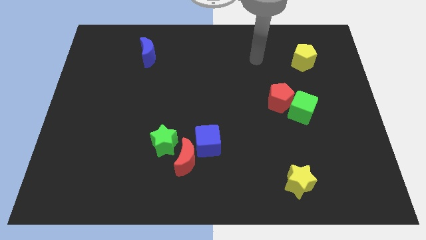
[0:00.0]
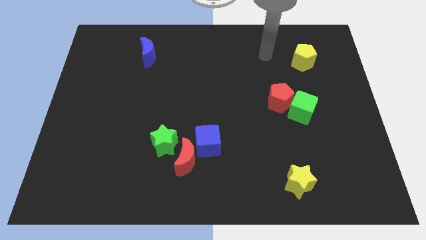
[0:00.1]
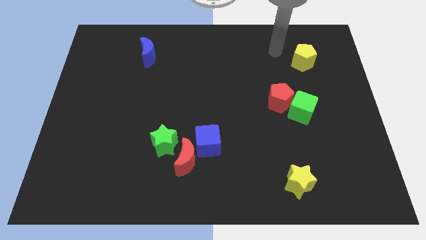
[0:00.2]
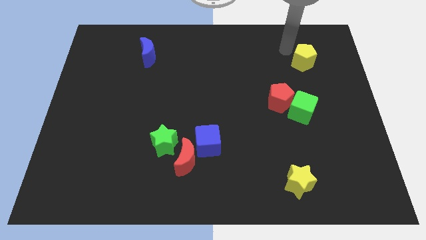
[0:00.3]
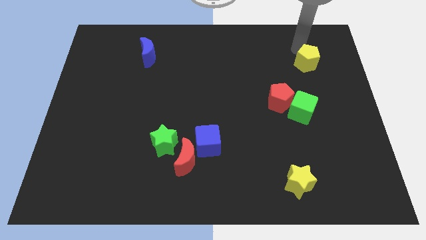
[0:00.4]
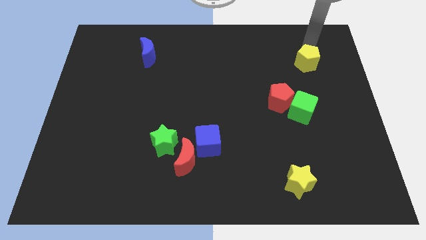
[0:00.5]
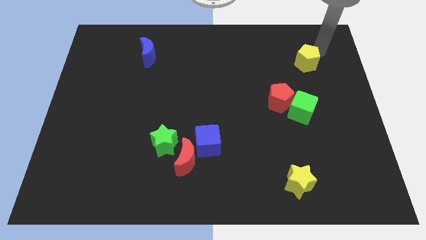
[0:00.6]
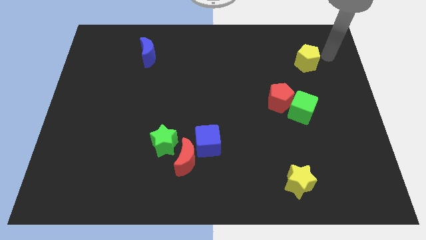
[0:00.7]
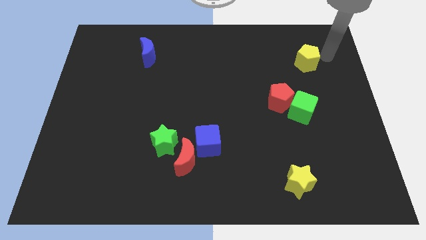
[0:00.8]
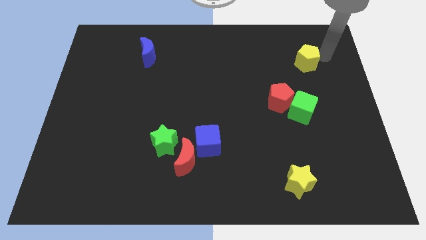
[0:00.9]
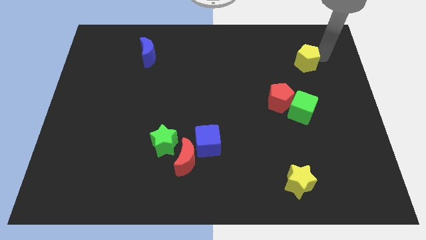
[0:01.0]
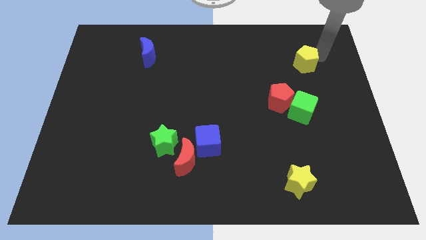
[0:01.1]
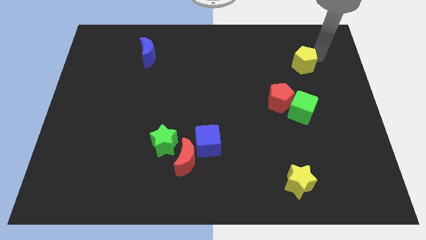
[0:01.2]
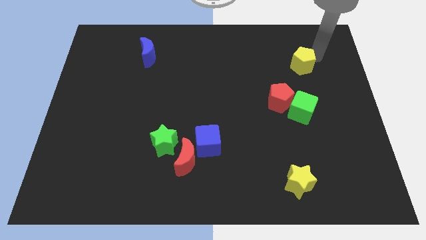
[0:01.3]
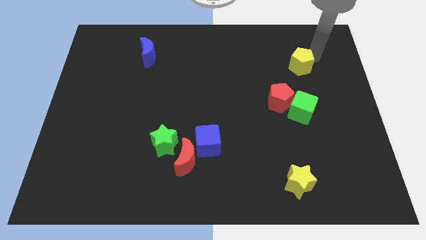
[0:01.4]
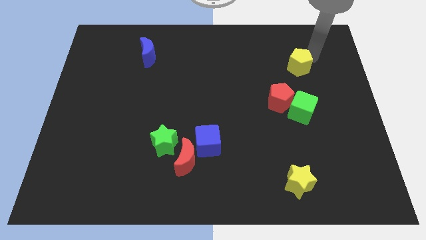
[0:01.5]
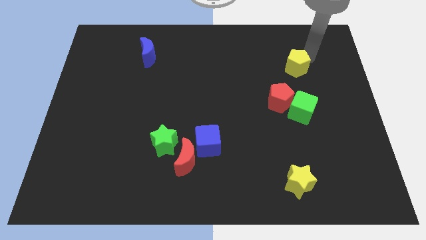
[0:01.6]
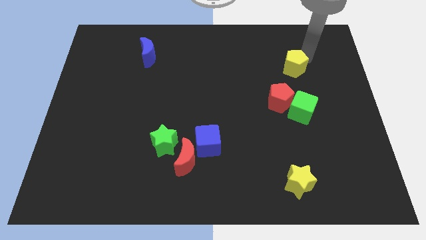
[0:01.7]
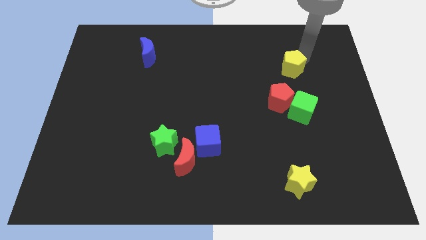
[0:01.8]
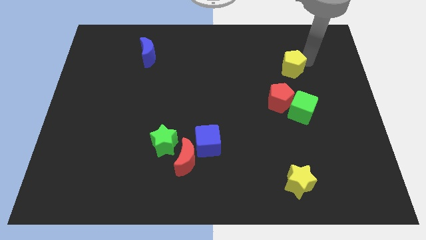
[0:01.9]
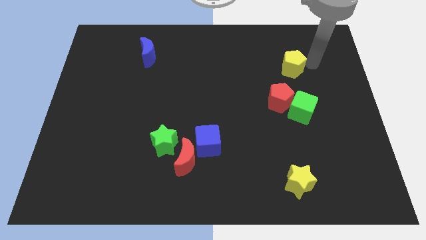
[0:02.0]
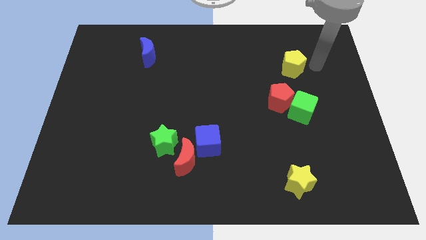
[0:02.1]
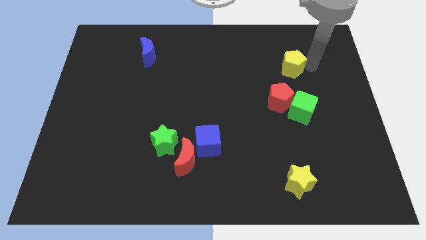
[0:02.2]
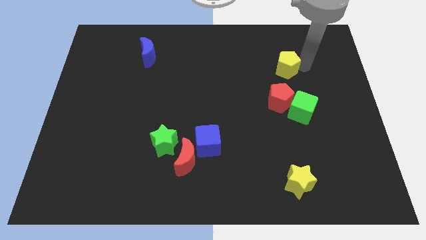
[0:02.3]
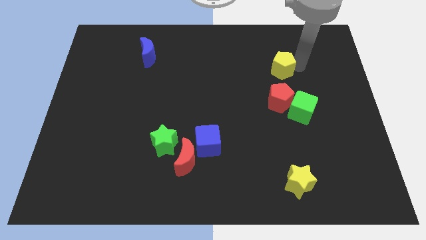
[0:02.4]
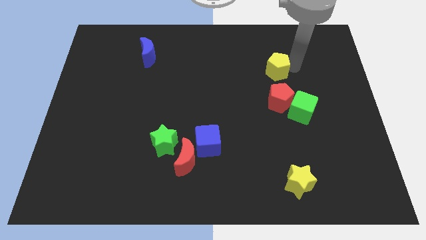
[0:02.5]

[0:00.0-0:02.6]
move the yellow pentagon somewhat left

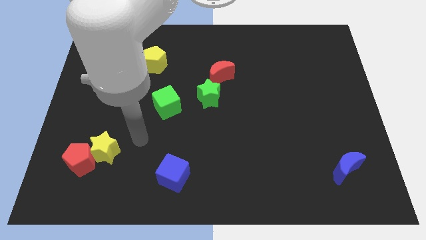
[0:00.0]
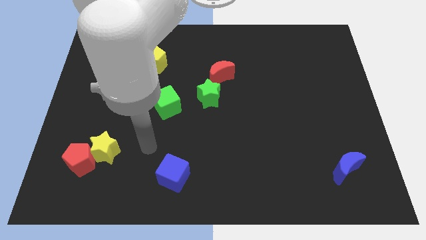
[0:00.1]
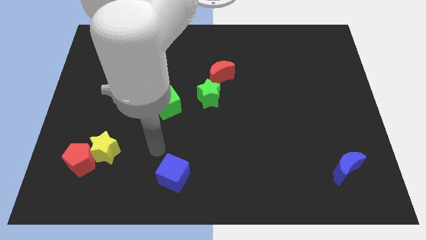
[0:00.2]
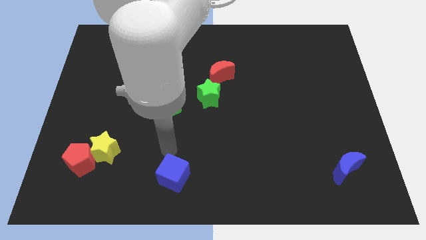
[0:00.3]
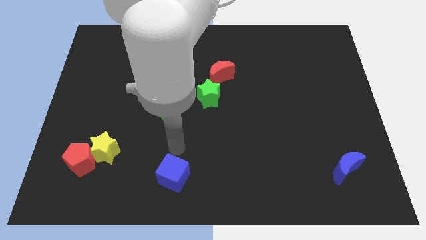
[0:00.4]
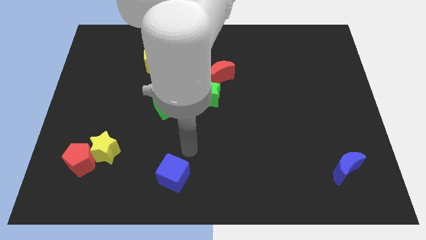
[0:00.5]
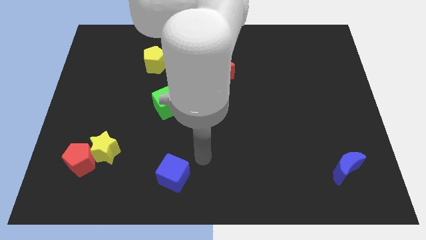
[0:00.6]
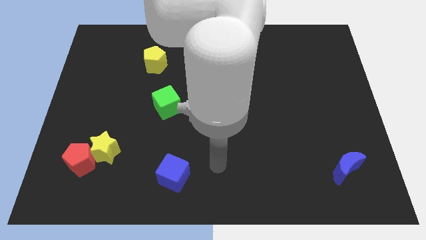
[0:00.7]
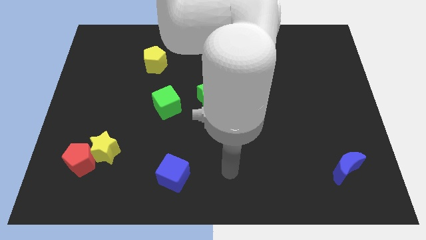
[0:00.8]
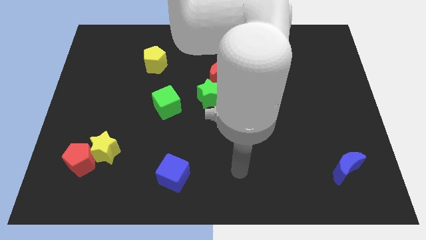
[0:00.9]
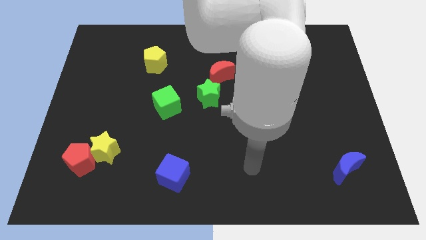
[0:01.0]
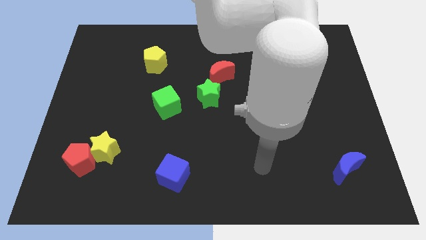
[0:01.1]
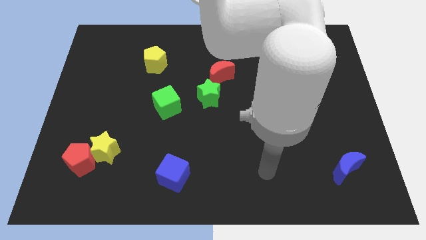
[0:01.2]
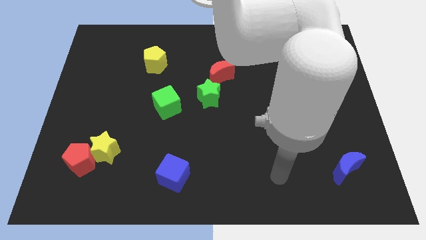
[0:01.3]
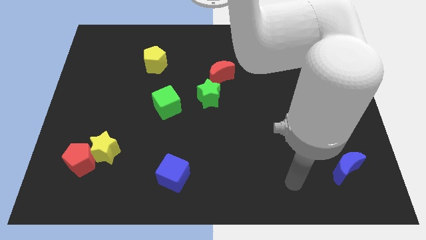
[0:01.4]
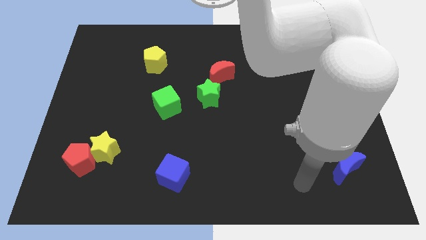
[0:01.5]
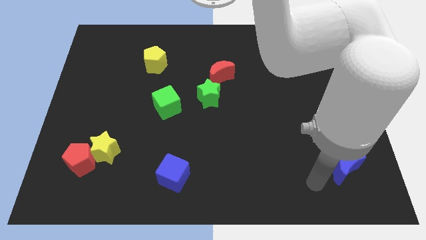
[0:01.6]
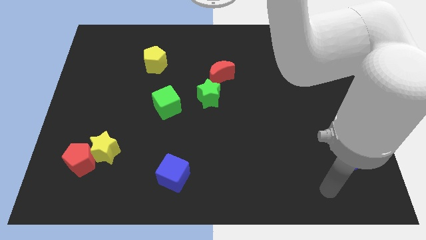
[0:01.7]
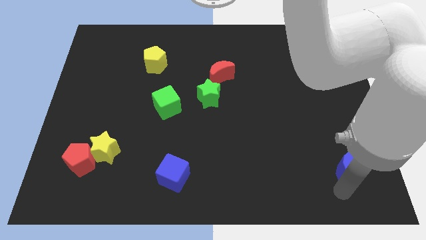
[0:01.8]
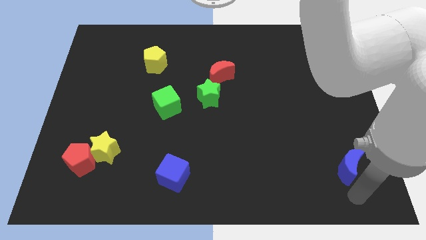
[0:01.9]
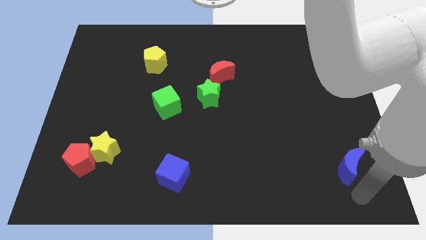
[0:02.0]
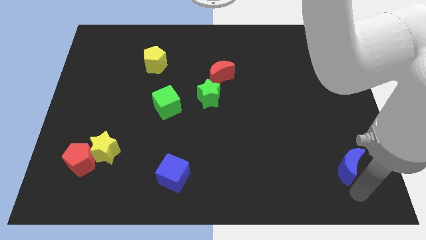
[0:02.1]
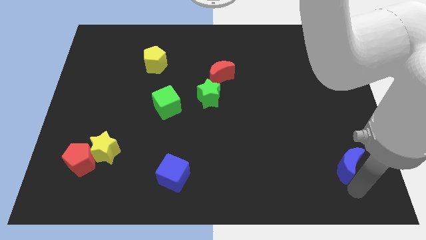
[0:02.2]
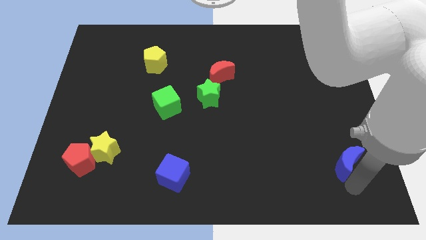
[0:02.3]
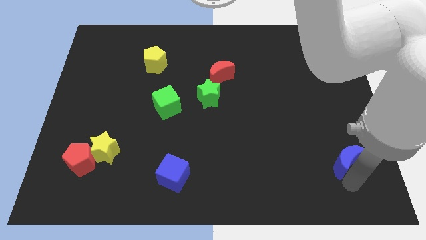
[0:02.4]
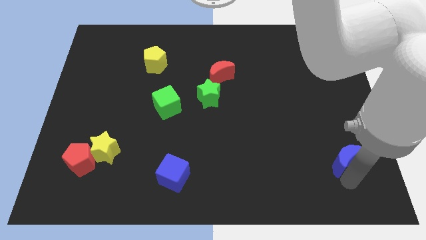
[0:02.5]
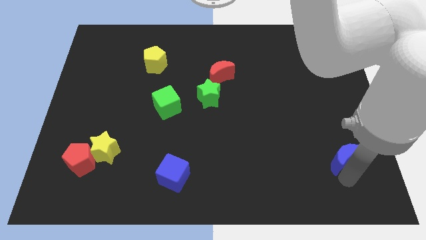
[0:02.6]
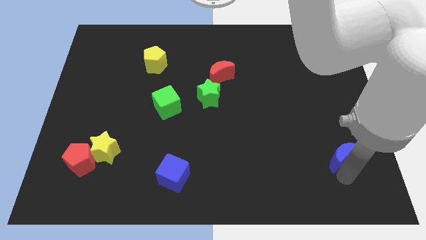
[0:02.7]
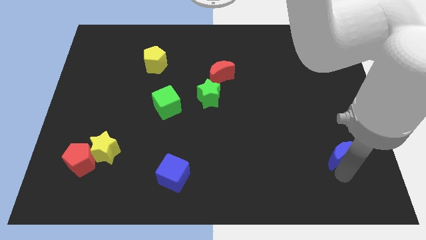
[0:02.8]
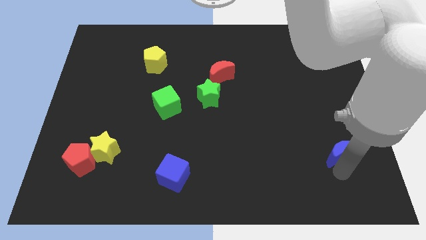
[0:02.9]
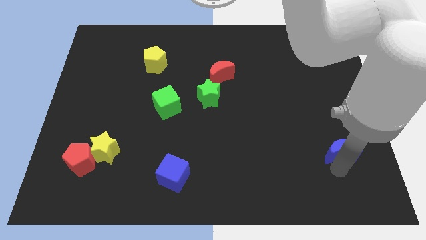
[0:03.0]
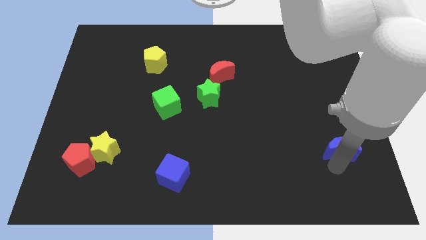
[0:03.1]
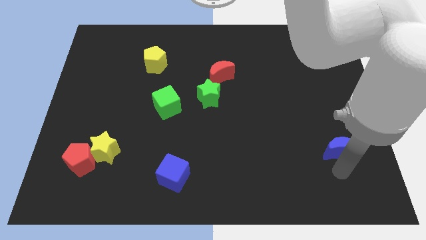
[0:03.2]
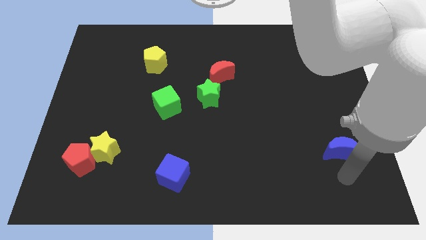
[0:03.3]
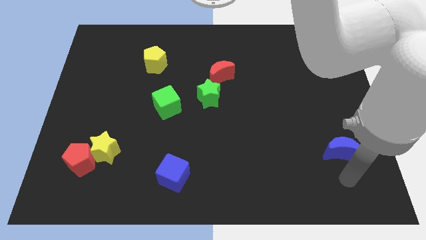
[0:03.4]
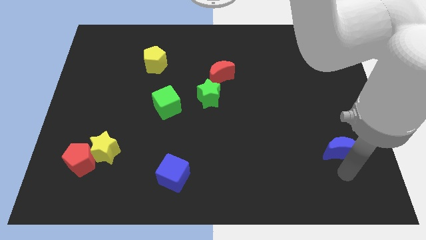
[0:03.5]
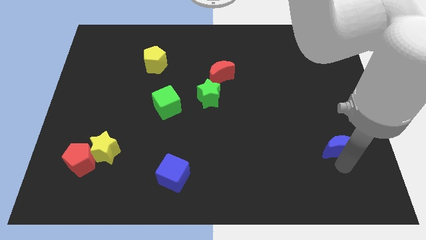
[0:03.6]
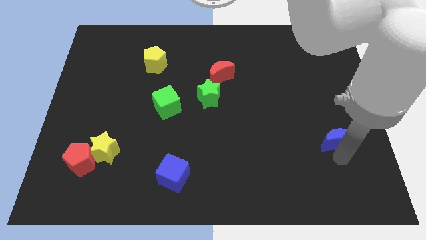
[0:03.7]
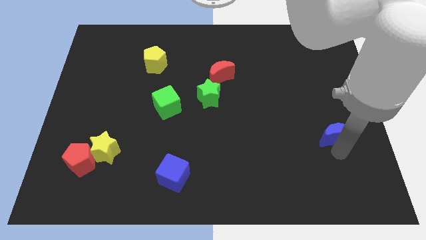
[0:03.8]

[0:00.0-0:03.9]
slightly move the blue moon upwards

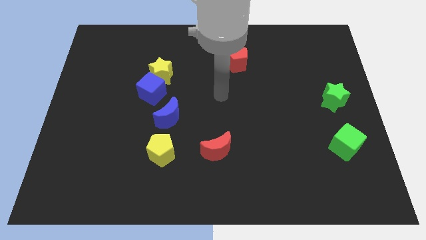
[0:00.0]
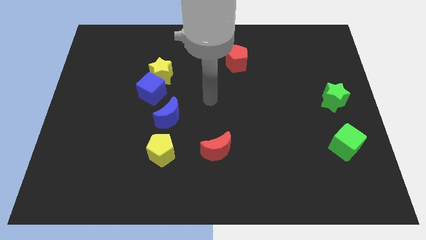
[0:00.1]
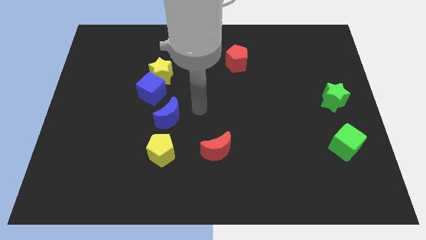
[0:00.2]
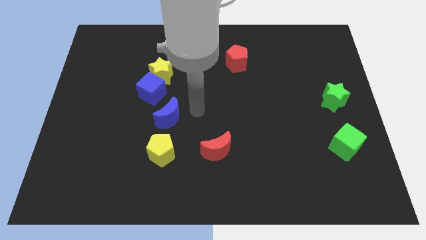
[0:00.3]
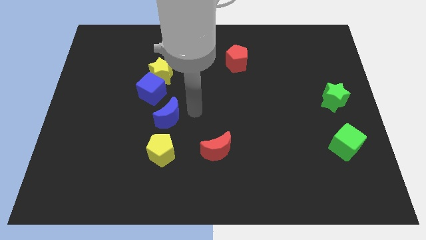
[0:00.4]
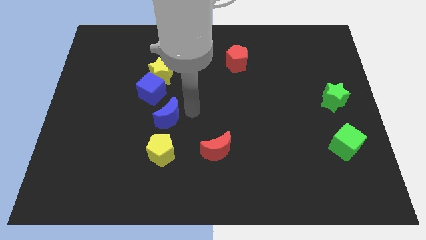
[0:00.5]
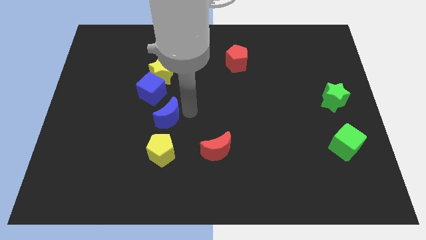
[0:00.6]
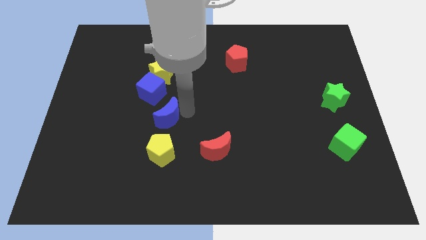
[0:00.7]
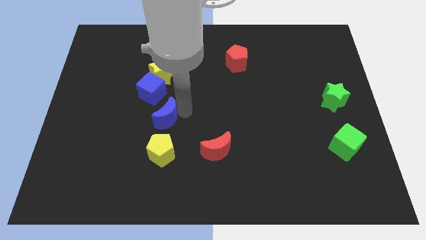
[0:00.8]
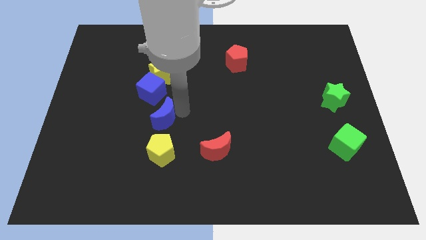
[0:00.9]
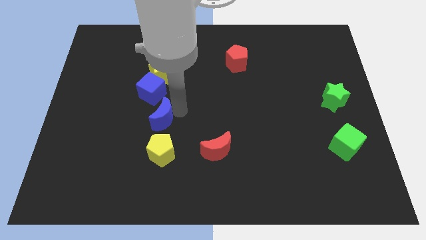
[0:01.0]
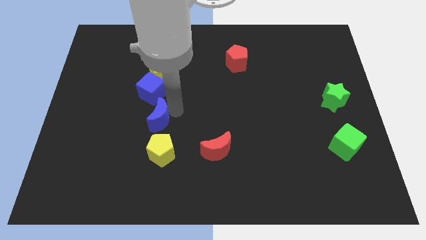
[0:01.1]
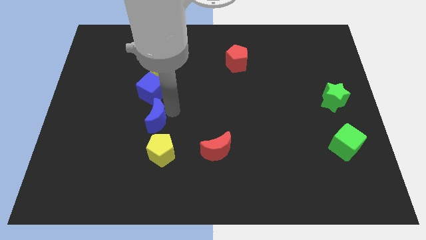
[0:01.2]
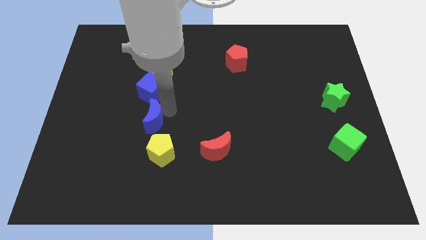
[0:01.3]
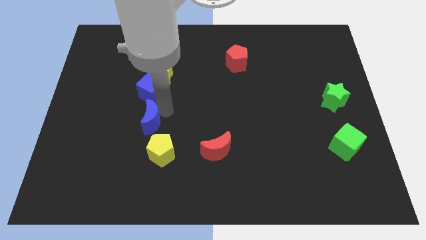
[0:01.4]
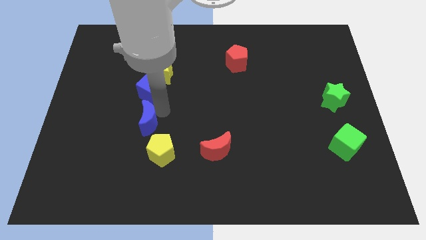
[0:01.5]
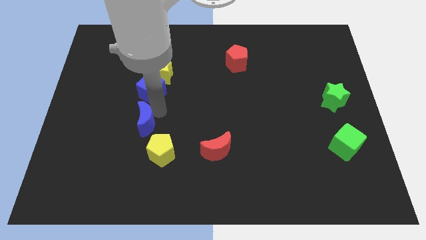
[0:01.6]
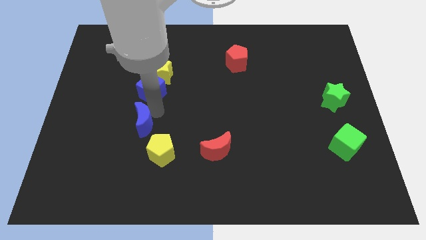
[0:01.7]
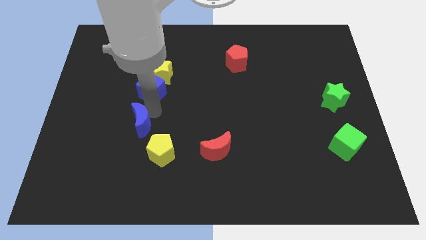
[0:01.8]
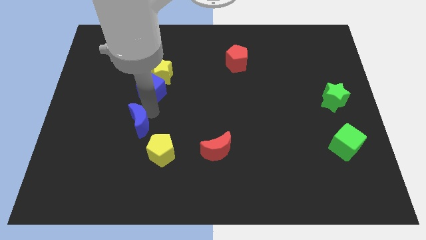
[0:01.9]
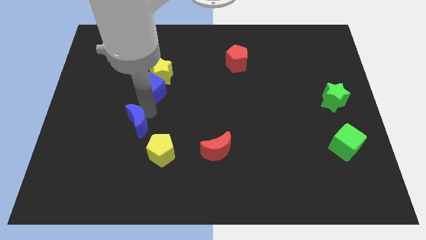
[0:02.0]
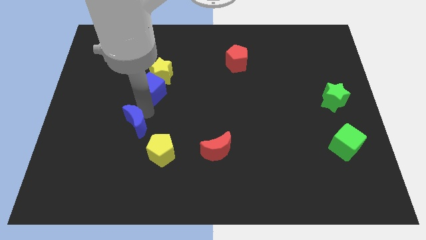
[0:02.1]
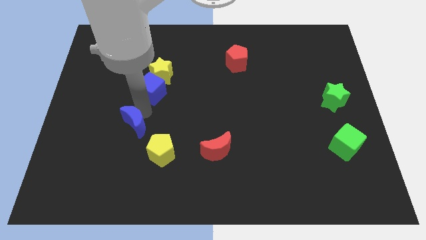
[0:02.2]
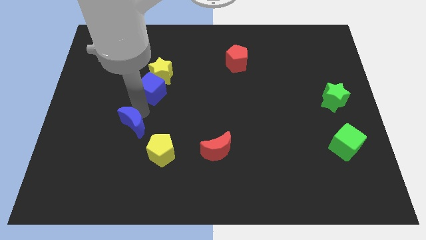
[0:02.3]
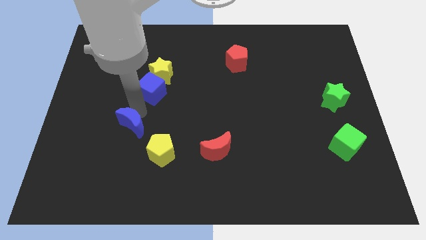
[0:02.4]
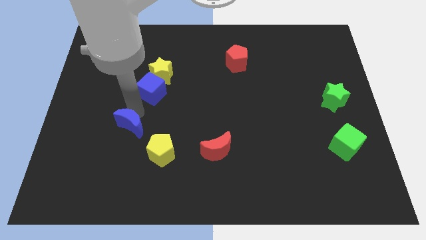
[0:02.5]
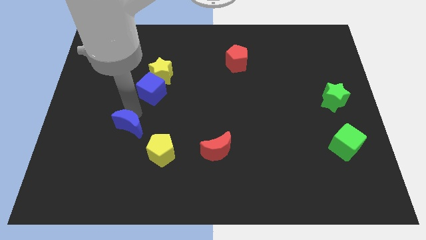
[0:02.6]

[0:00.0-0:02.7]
slightly push the blue moon diagonally downwards and to the left
